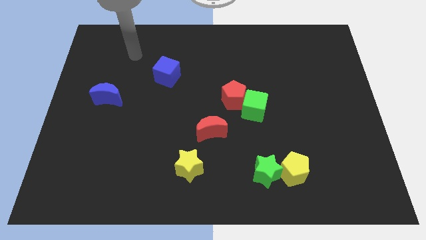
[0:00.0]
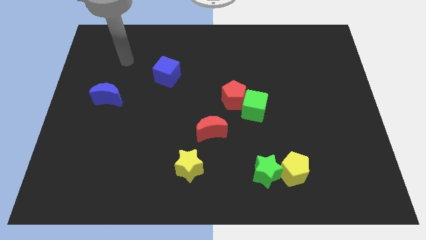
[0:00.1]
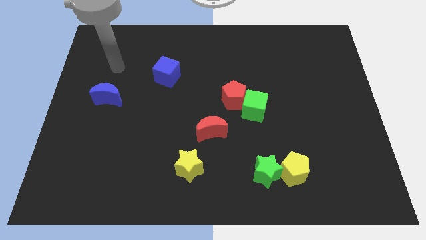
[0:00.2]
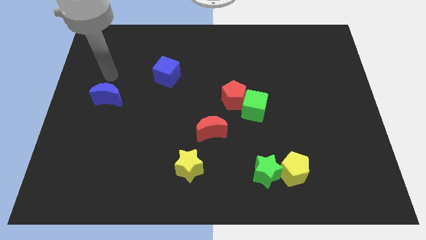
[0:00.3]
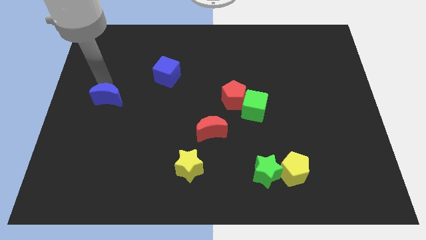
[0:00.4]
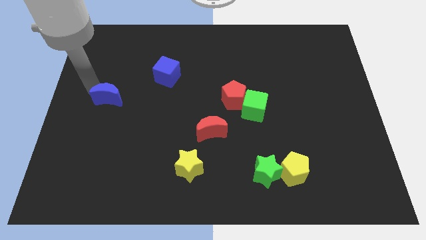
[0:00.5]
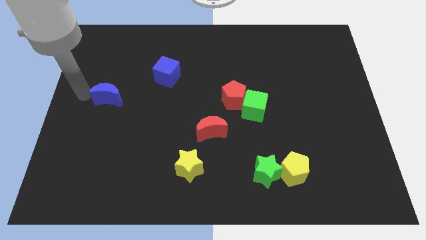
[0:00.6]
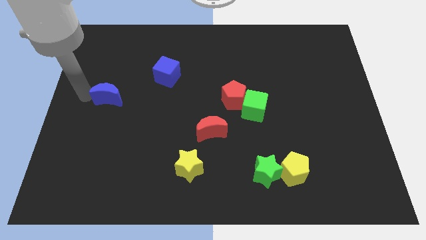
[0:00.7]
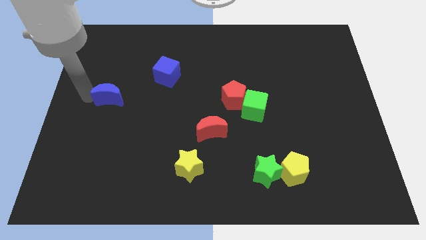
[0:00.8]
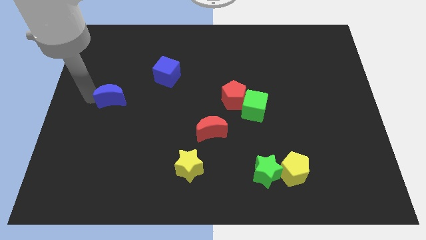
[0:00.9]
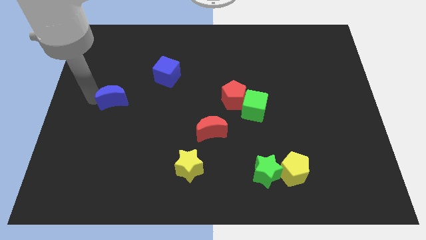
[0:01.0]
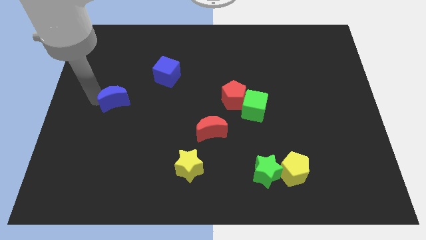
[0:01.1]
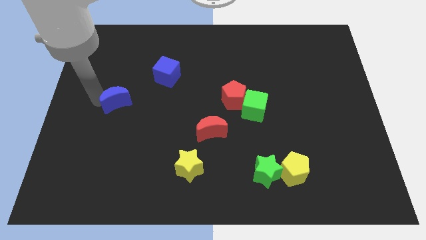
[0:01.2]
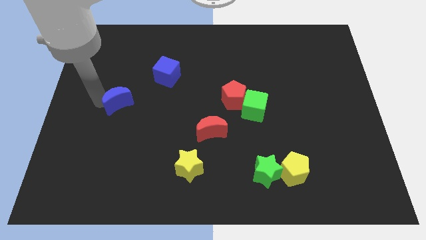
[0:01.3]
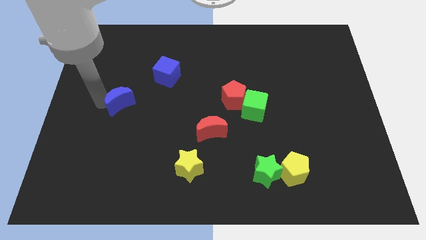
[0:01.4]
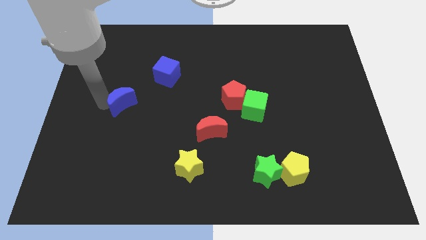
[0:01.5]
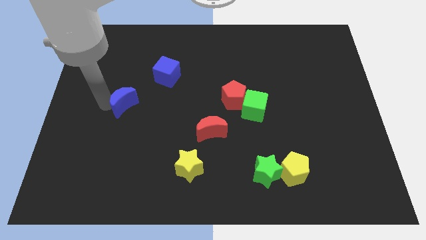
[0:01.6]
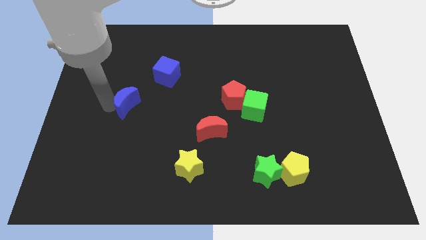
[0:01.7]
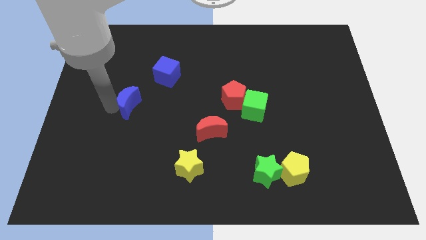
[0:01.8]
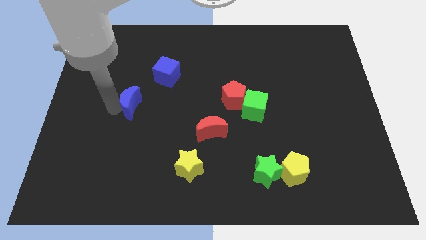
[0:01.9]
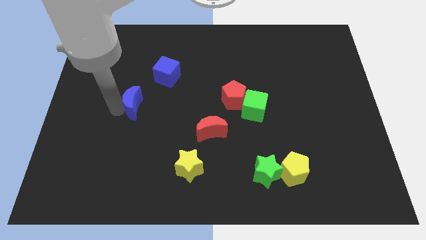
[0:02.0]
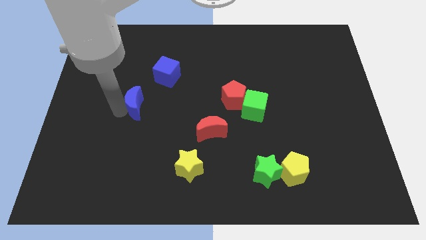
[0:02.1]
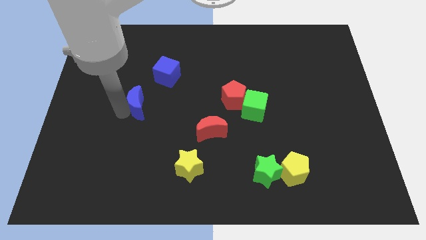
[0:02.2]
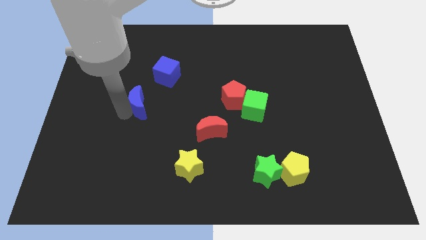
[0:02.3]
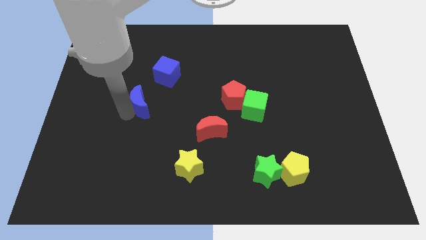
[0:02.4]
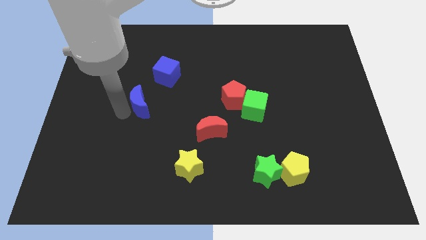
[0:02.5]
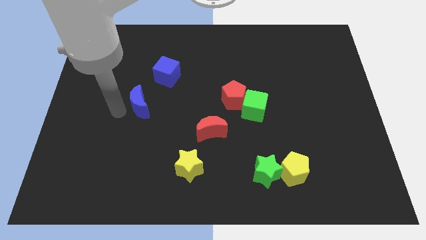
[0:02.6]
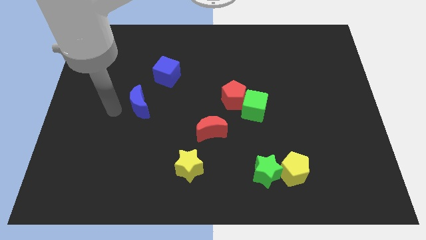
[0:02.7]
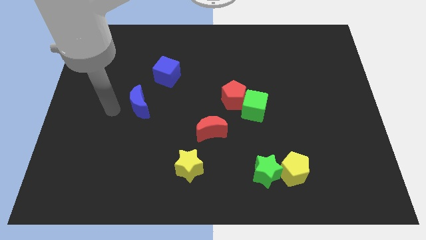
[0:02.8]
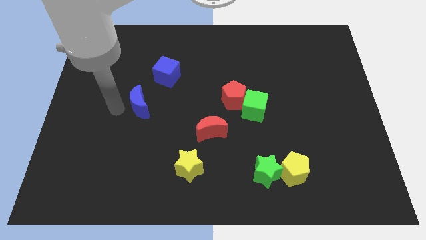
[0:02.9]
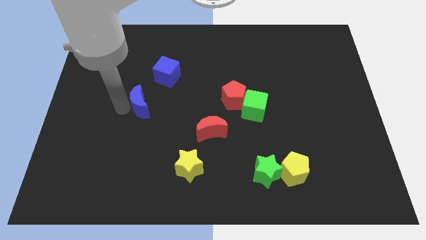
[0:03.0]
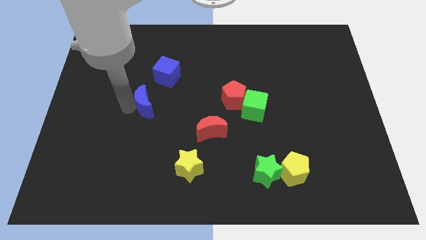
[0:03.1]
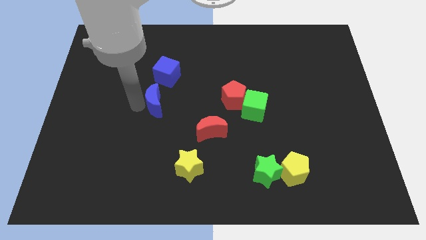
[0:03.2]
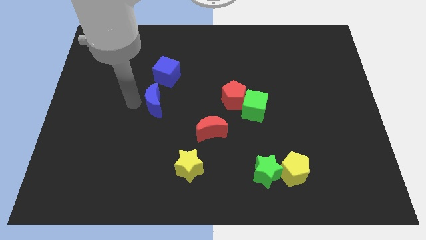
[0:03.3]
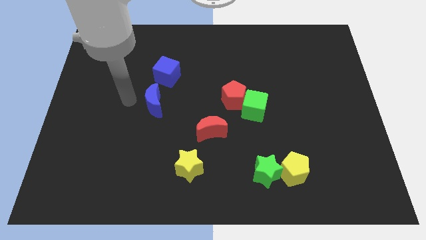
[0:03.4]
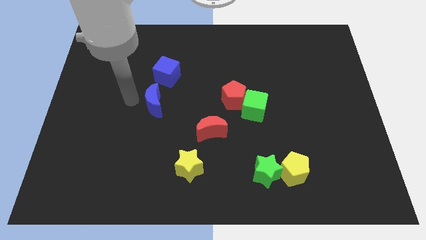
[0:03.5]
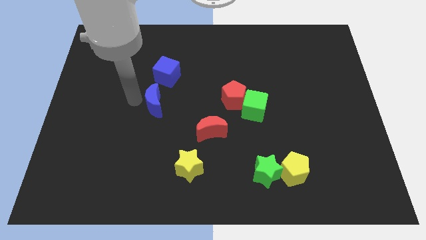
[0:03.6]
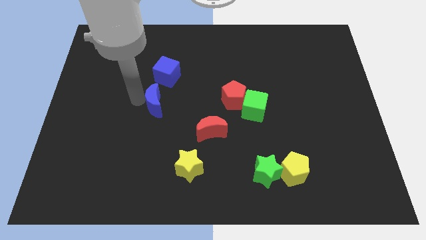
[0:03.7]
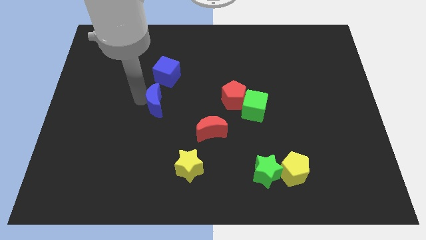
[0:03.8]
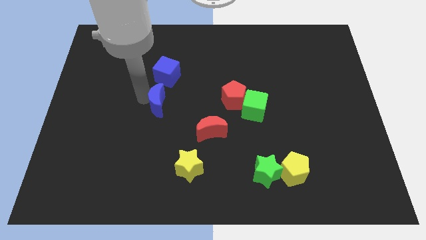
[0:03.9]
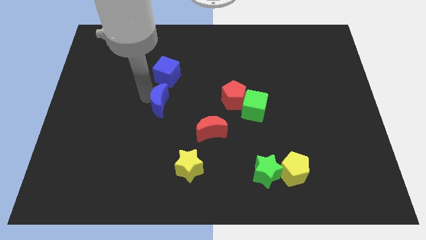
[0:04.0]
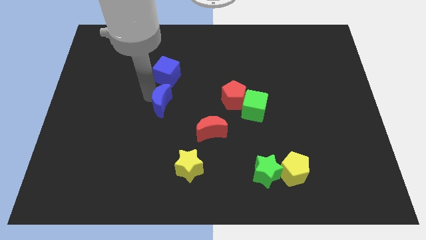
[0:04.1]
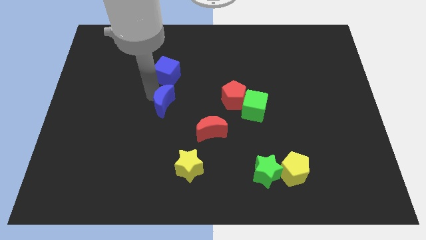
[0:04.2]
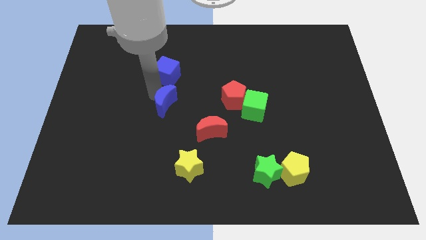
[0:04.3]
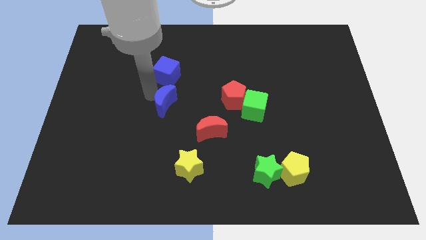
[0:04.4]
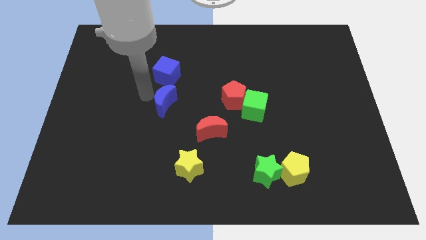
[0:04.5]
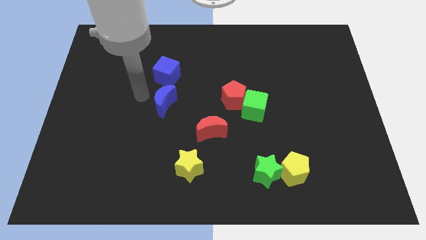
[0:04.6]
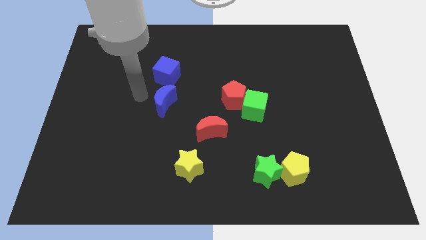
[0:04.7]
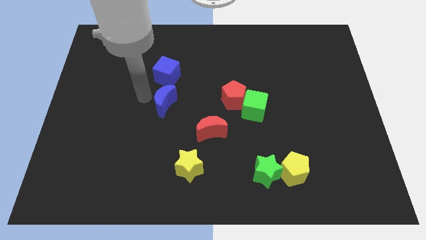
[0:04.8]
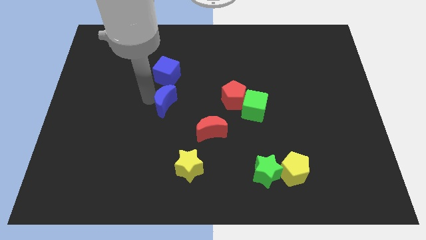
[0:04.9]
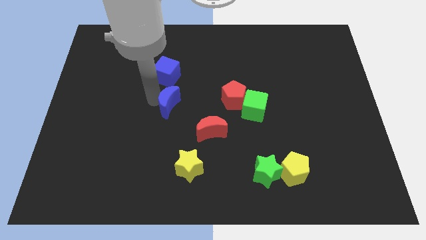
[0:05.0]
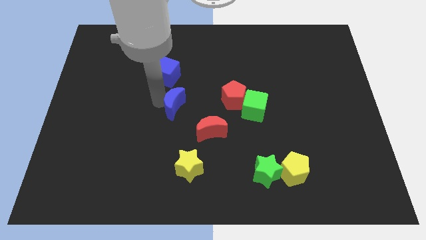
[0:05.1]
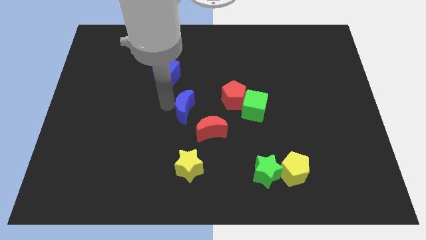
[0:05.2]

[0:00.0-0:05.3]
move the blue moon just left of the green cube

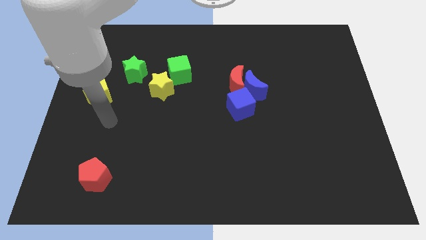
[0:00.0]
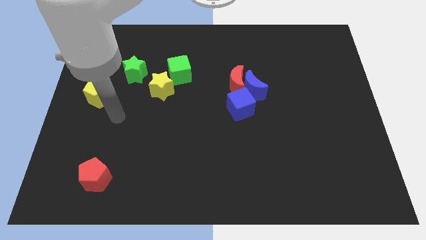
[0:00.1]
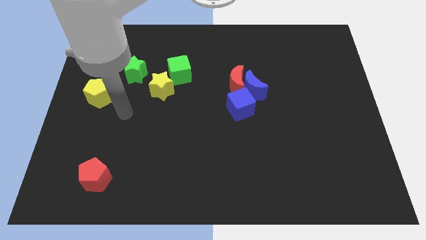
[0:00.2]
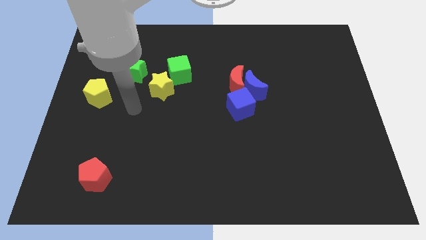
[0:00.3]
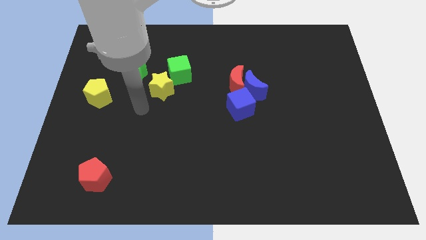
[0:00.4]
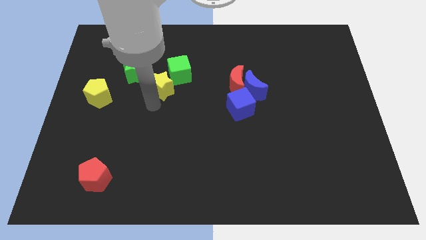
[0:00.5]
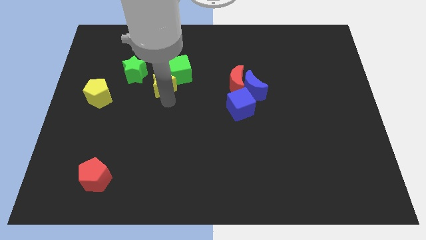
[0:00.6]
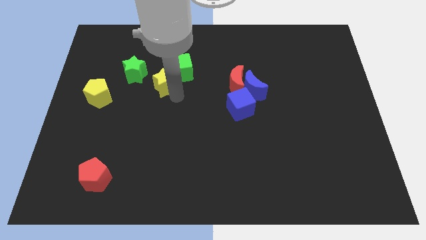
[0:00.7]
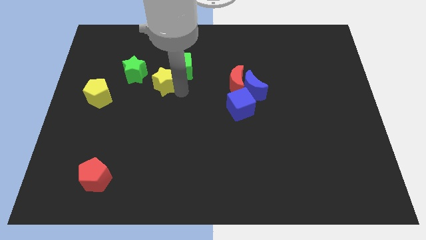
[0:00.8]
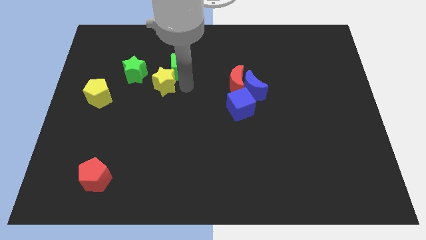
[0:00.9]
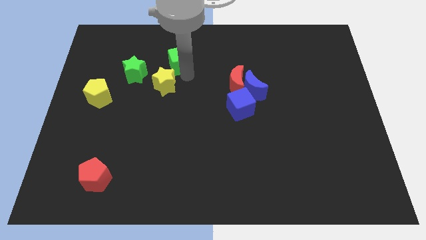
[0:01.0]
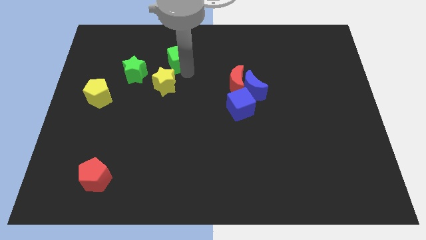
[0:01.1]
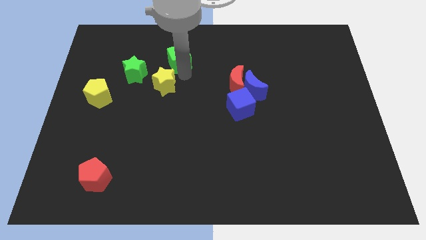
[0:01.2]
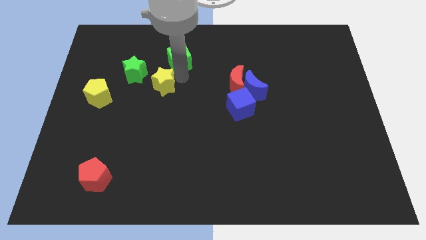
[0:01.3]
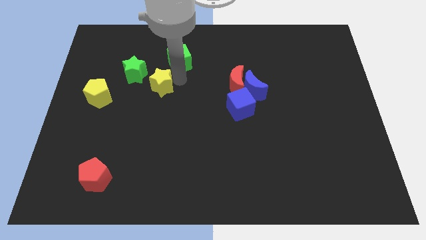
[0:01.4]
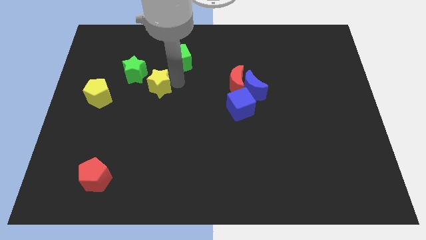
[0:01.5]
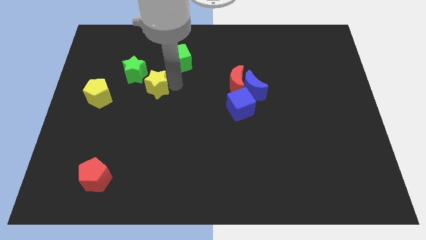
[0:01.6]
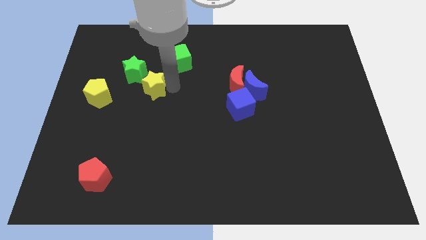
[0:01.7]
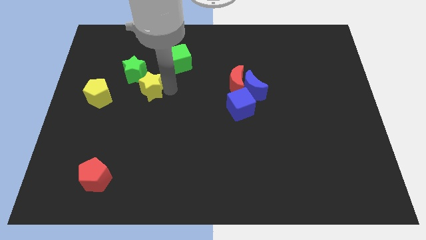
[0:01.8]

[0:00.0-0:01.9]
slide the yellow star to the bottom of the green star
